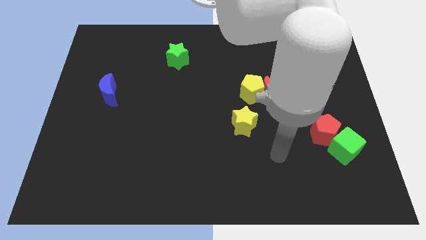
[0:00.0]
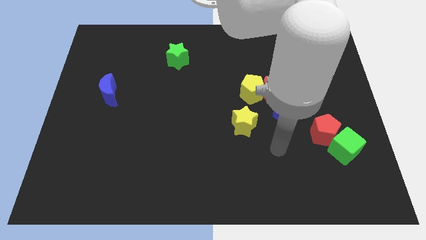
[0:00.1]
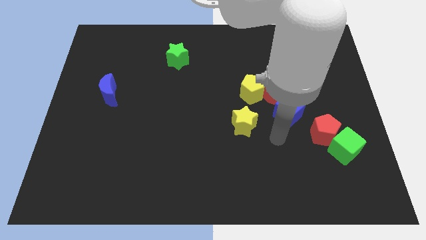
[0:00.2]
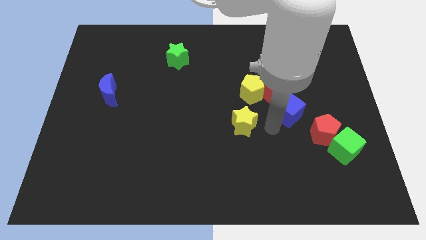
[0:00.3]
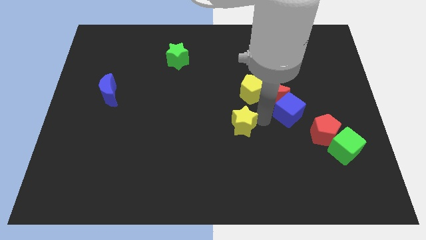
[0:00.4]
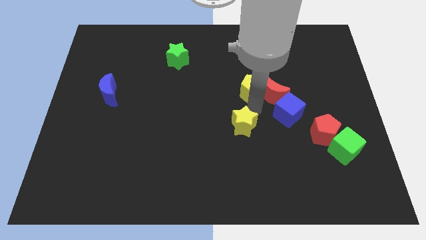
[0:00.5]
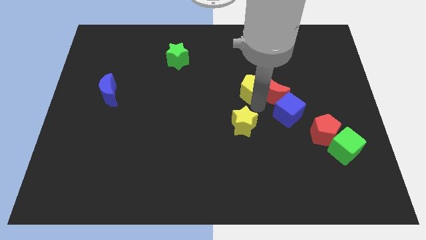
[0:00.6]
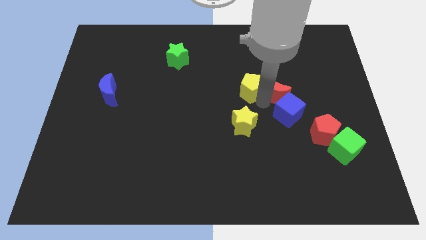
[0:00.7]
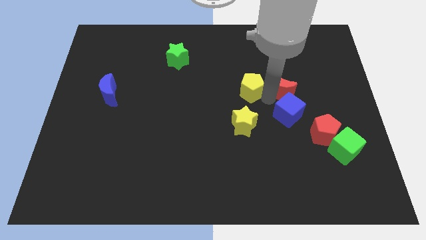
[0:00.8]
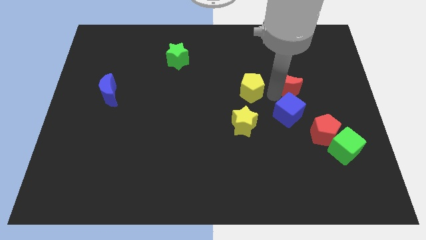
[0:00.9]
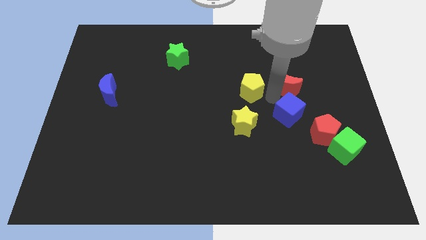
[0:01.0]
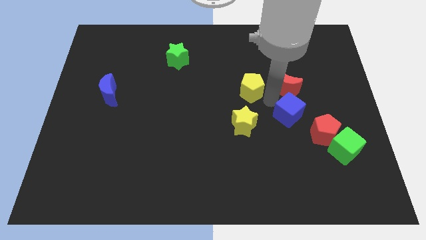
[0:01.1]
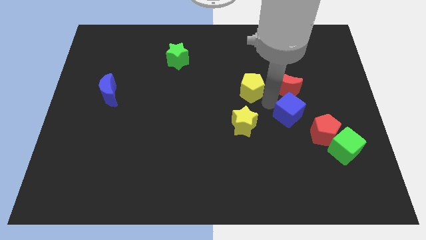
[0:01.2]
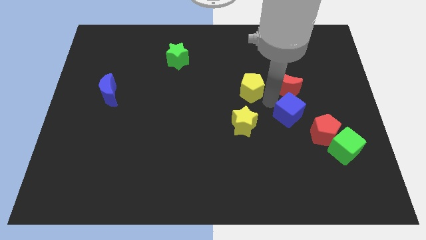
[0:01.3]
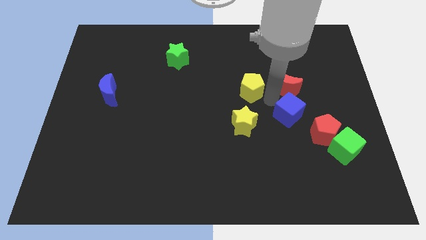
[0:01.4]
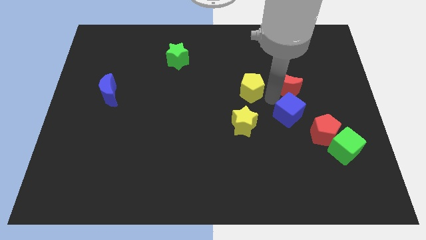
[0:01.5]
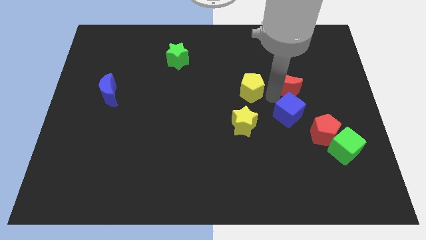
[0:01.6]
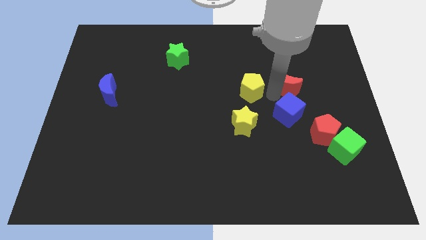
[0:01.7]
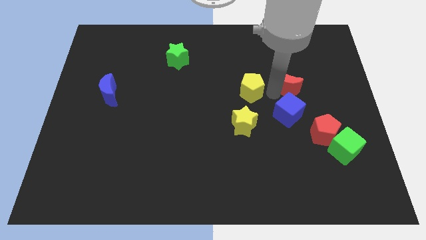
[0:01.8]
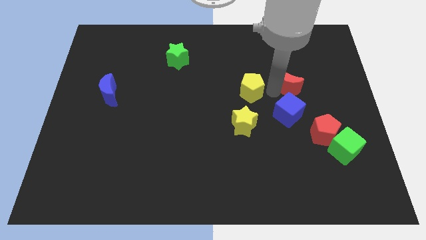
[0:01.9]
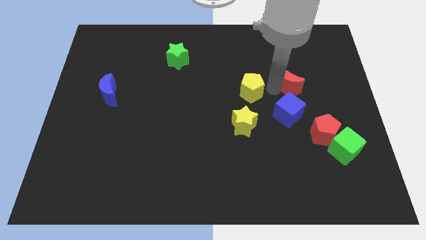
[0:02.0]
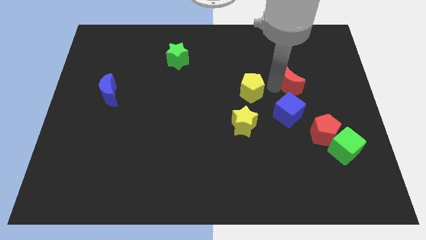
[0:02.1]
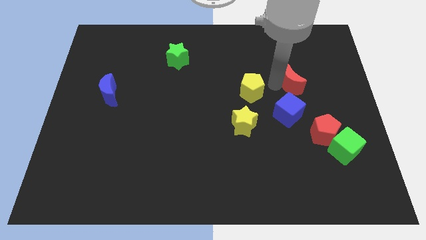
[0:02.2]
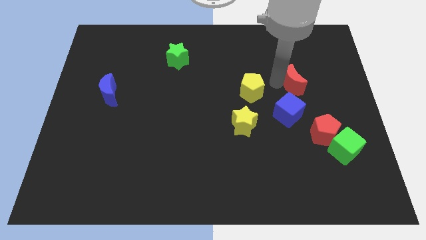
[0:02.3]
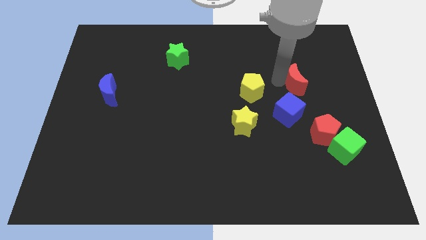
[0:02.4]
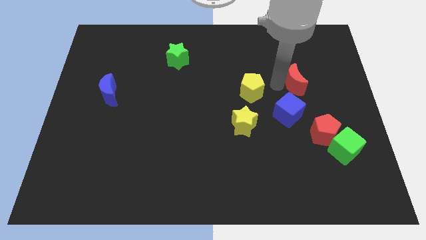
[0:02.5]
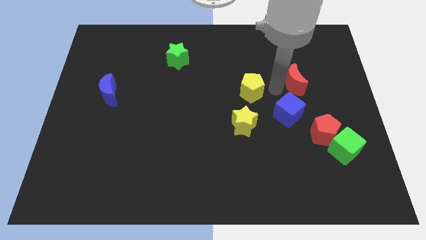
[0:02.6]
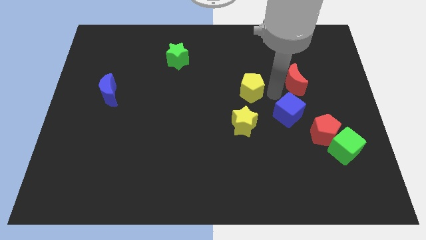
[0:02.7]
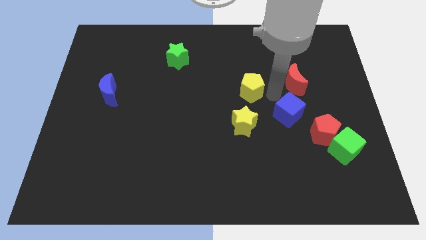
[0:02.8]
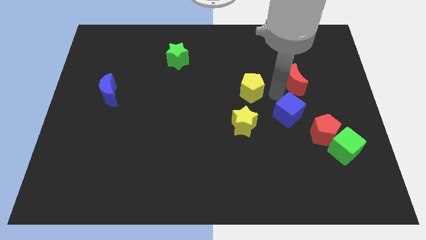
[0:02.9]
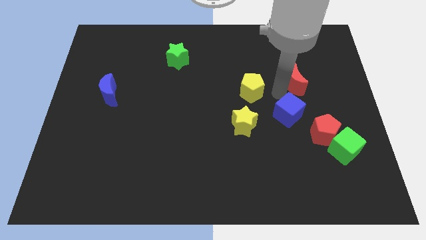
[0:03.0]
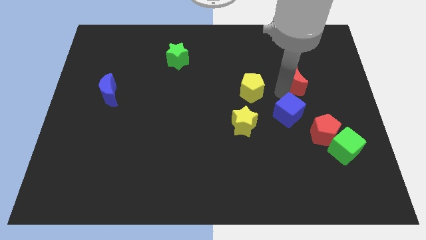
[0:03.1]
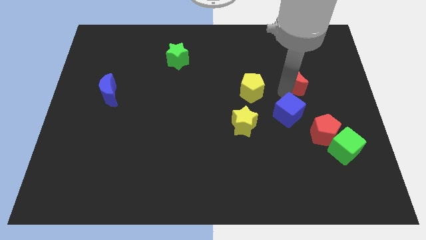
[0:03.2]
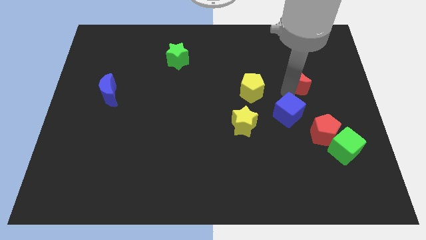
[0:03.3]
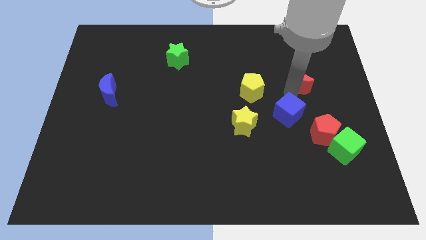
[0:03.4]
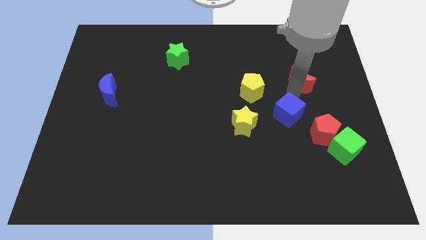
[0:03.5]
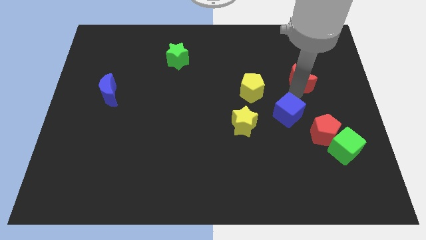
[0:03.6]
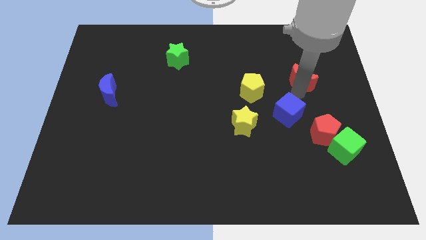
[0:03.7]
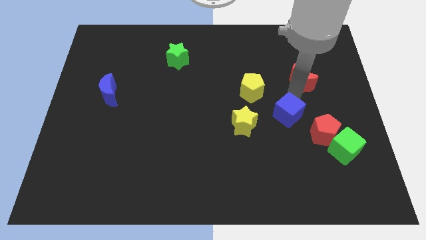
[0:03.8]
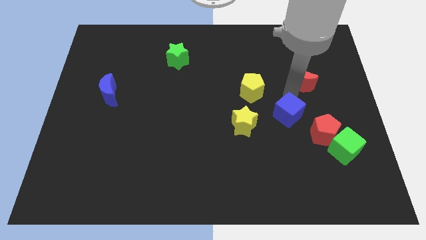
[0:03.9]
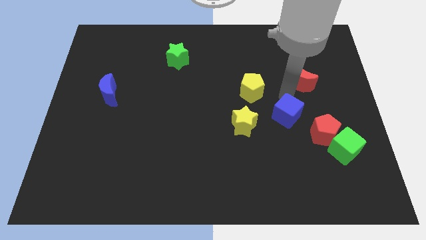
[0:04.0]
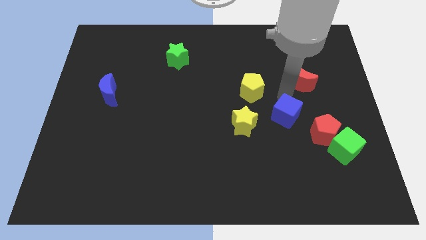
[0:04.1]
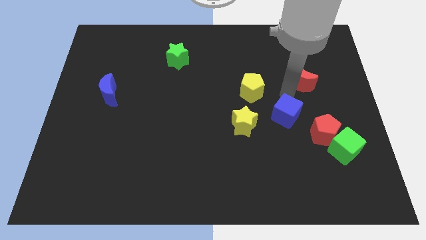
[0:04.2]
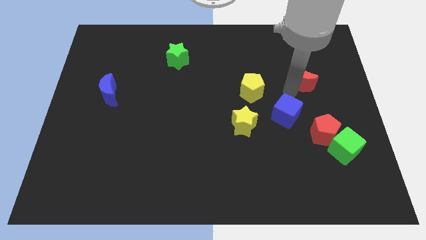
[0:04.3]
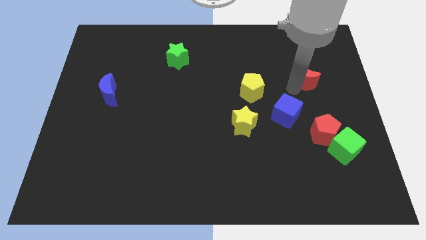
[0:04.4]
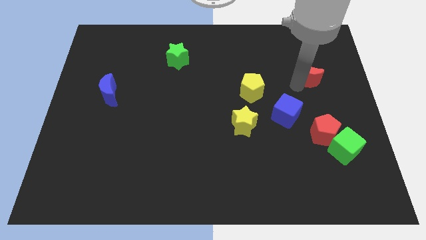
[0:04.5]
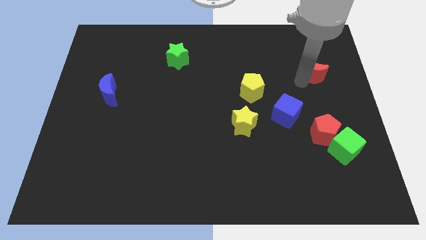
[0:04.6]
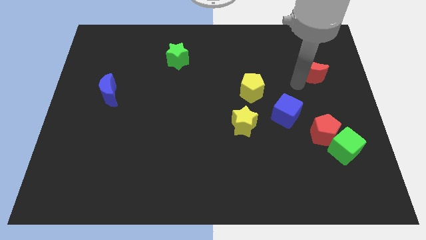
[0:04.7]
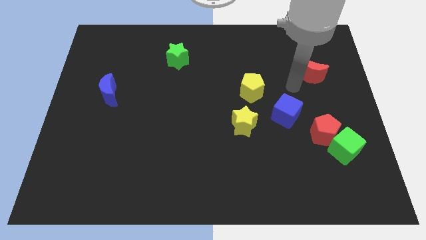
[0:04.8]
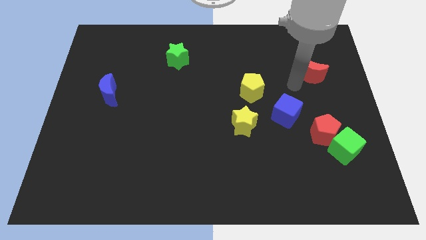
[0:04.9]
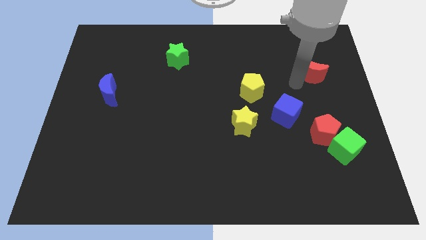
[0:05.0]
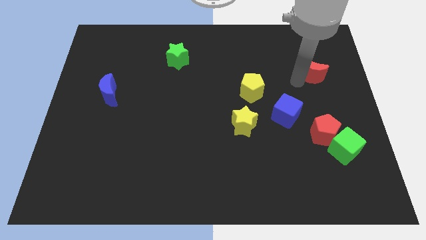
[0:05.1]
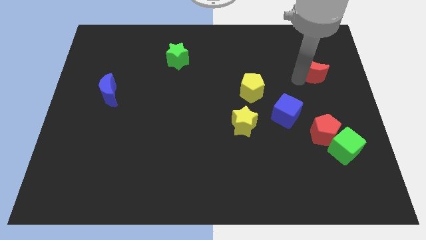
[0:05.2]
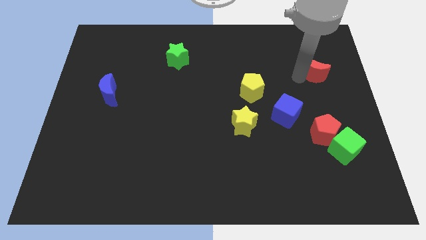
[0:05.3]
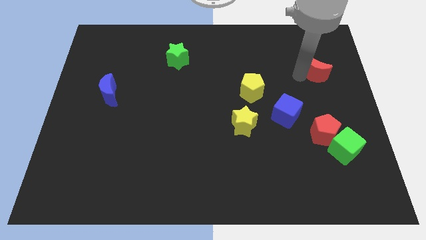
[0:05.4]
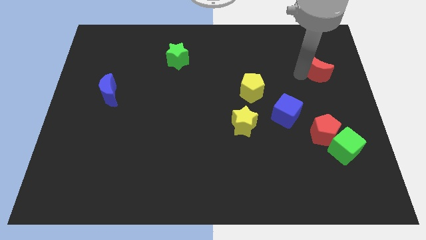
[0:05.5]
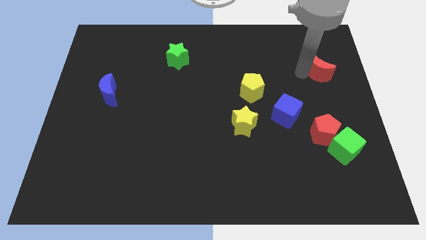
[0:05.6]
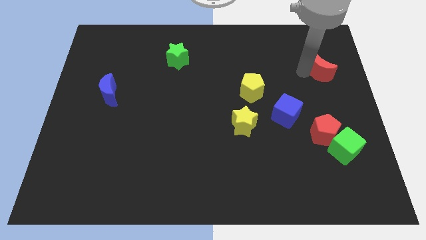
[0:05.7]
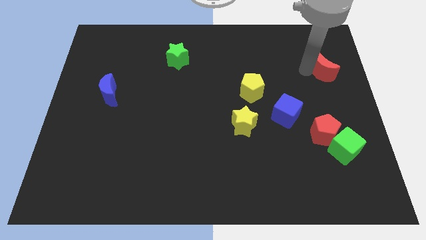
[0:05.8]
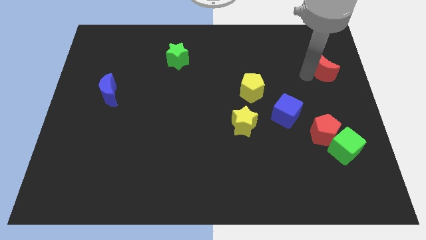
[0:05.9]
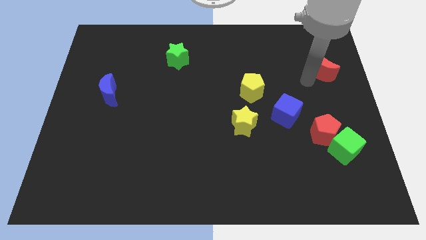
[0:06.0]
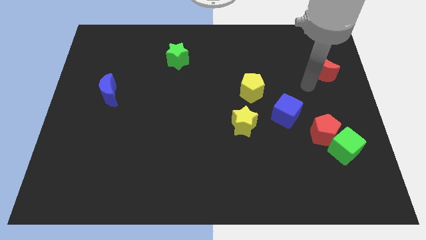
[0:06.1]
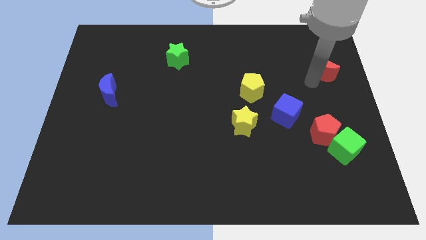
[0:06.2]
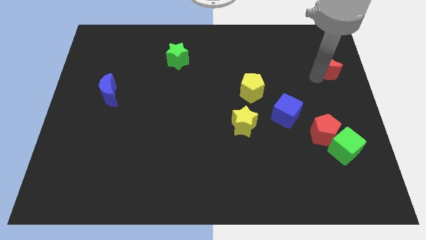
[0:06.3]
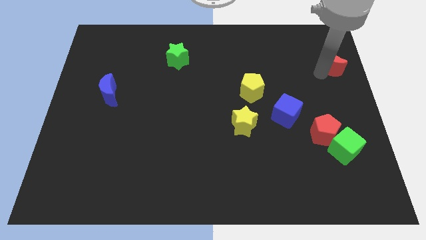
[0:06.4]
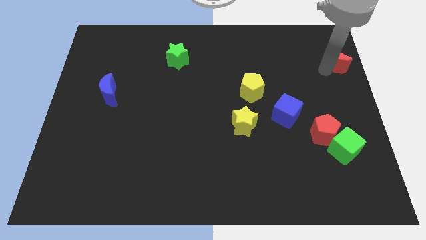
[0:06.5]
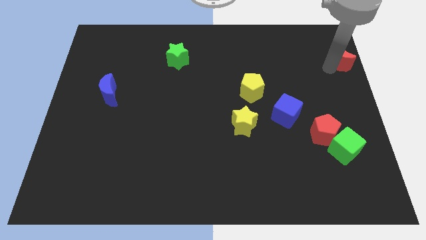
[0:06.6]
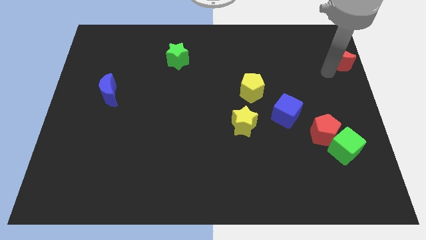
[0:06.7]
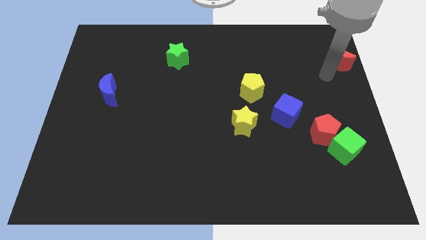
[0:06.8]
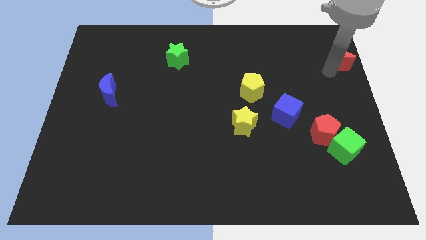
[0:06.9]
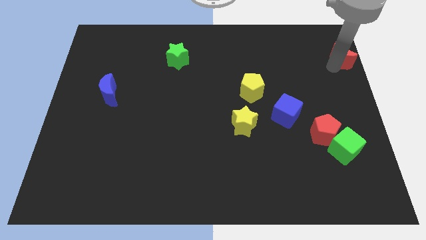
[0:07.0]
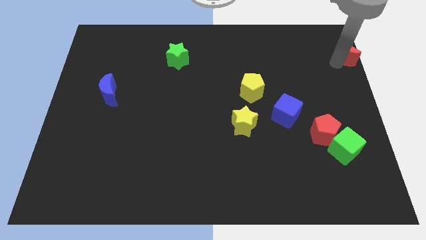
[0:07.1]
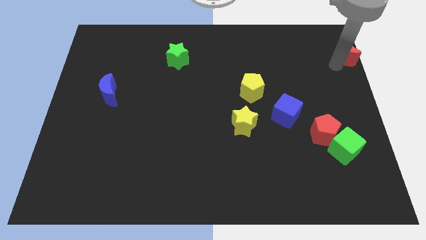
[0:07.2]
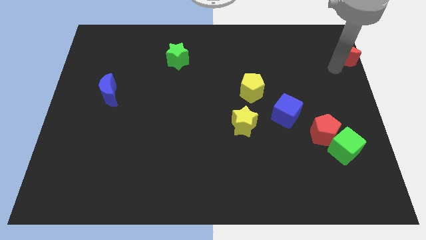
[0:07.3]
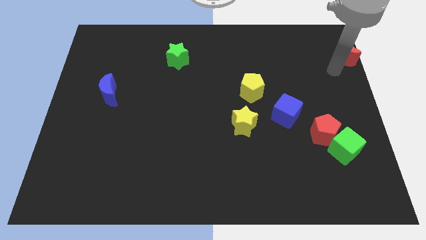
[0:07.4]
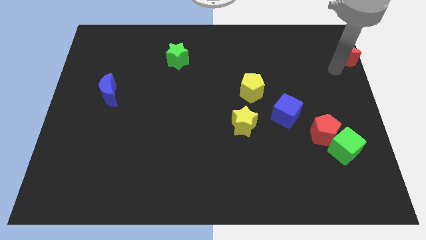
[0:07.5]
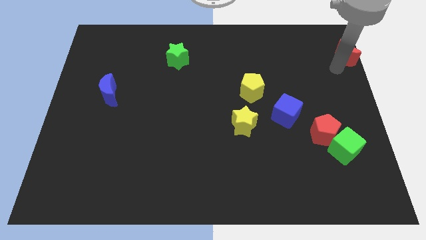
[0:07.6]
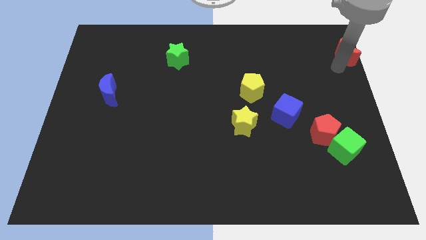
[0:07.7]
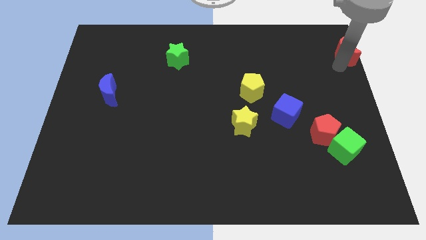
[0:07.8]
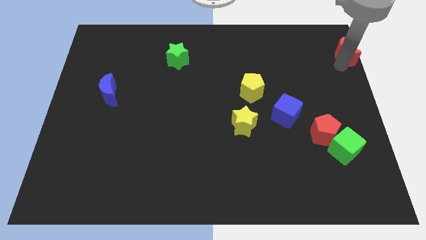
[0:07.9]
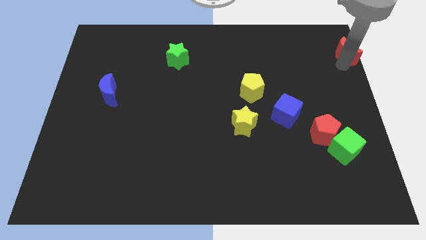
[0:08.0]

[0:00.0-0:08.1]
push the red moon to the top right of the board
